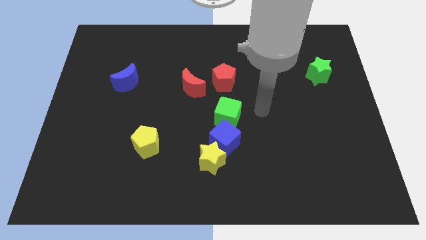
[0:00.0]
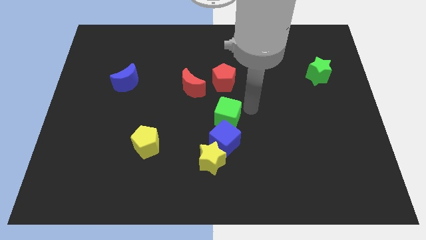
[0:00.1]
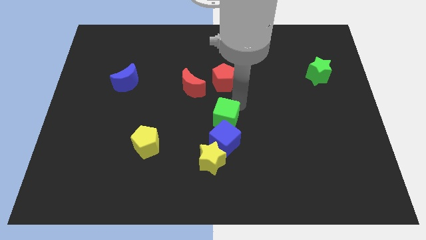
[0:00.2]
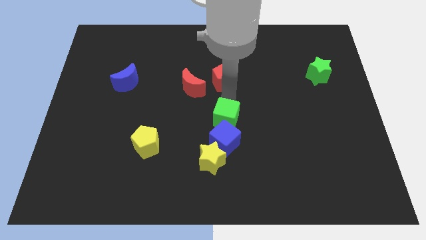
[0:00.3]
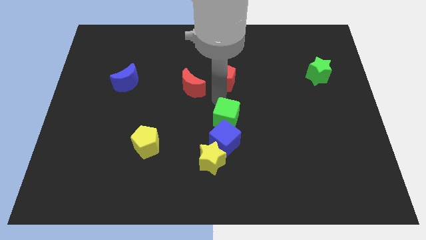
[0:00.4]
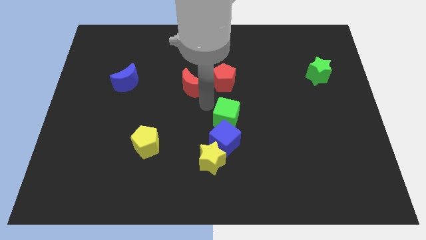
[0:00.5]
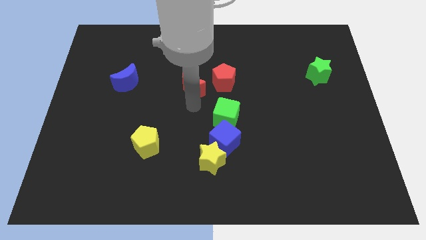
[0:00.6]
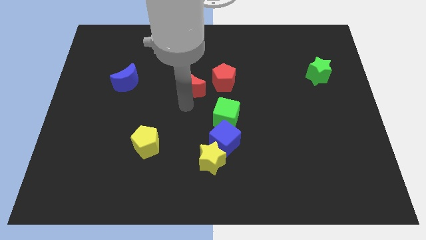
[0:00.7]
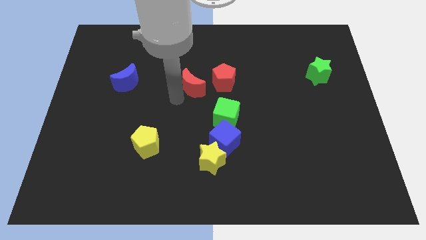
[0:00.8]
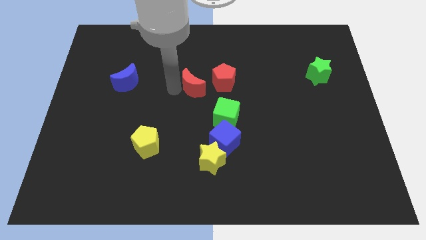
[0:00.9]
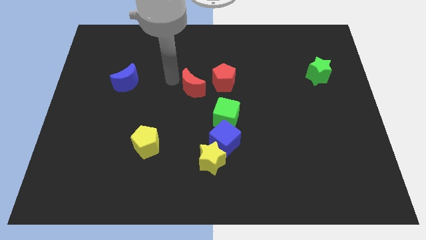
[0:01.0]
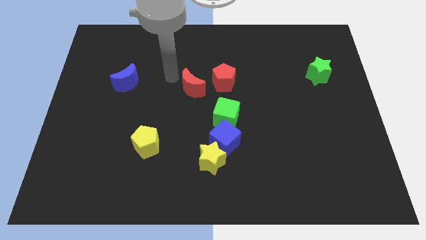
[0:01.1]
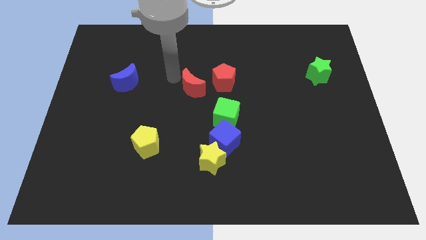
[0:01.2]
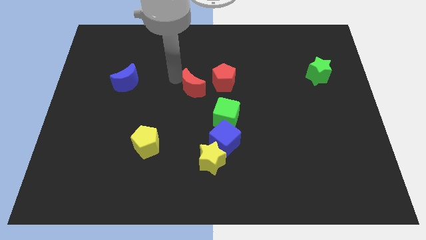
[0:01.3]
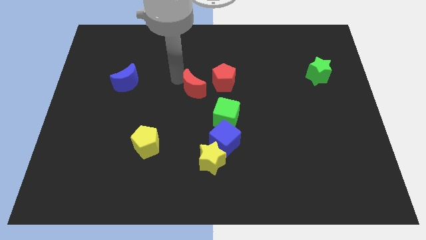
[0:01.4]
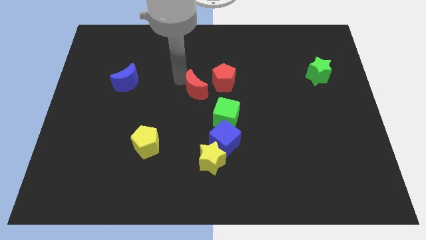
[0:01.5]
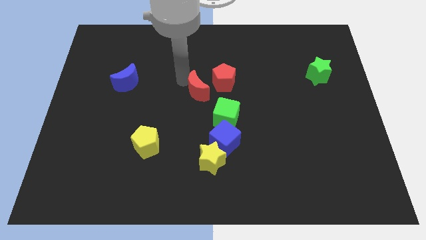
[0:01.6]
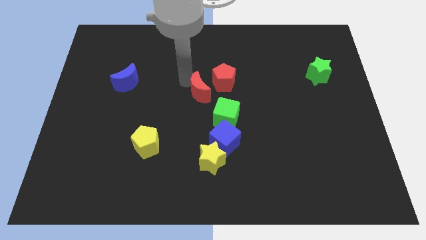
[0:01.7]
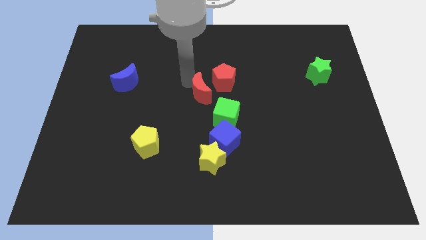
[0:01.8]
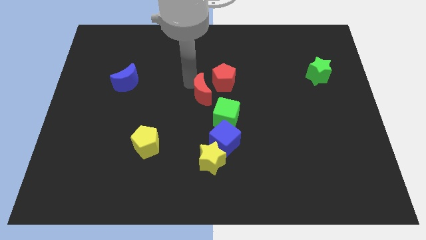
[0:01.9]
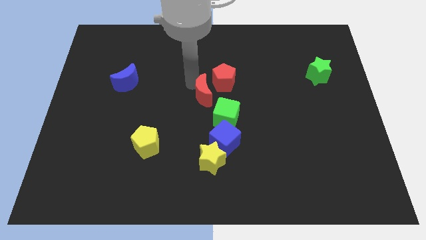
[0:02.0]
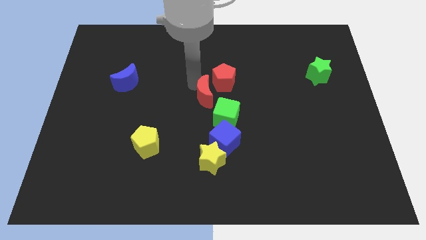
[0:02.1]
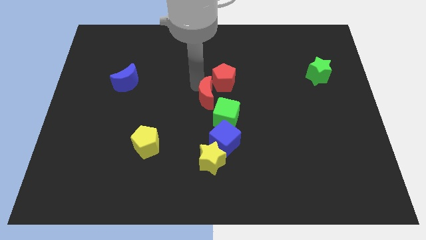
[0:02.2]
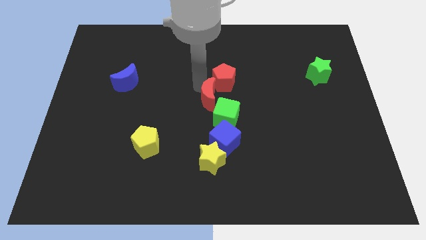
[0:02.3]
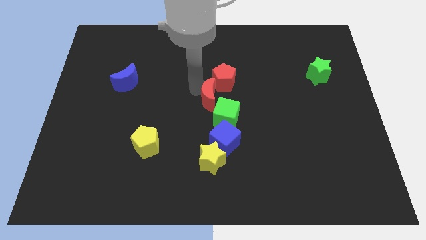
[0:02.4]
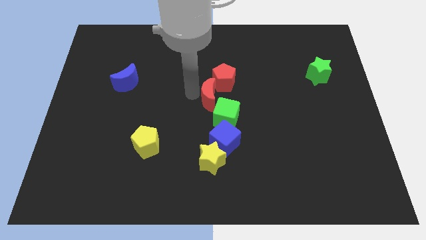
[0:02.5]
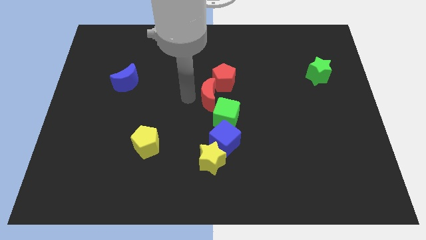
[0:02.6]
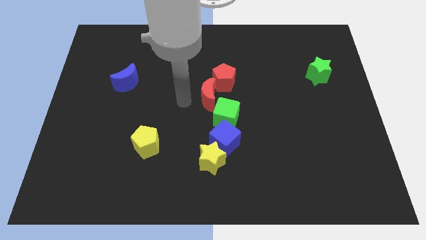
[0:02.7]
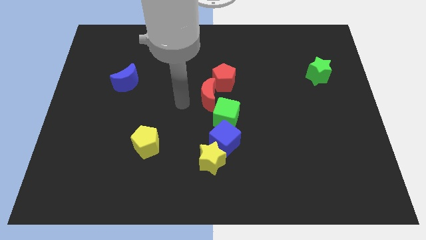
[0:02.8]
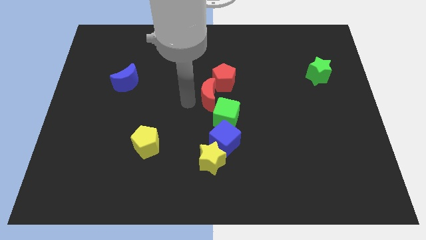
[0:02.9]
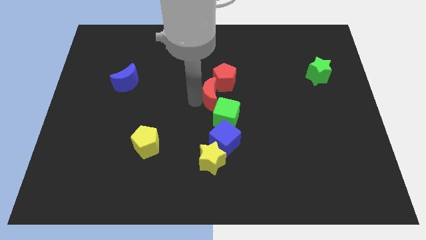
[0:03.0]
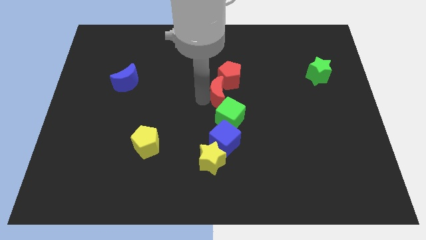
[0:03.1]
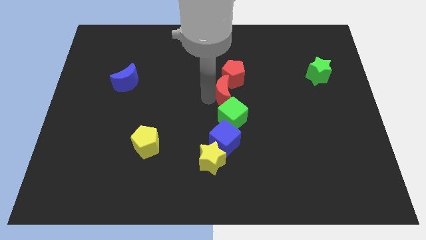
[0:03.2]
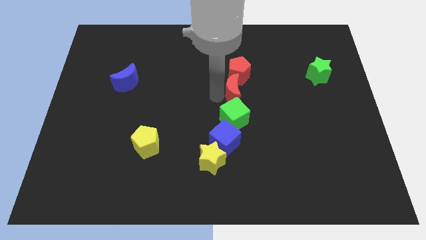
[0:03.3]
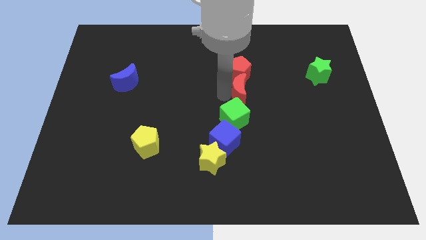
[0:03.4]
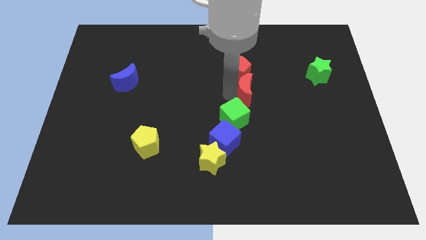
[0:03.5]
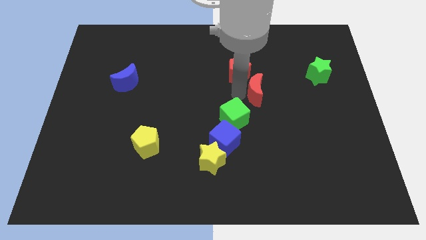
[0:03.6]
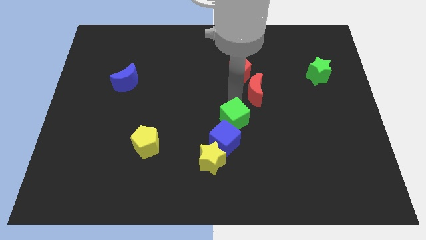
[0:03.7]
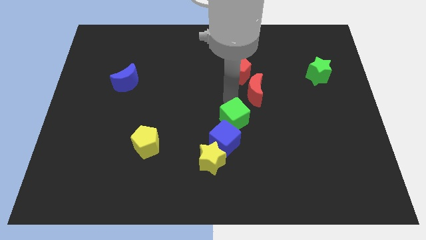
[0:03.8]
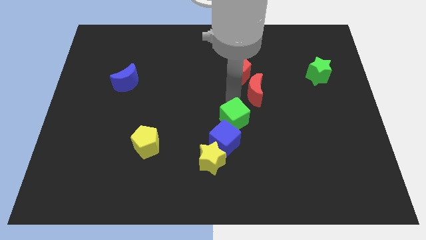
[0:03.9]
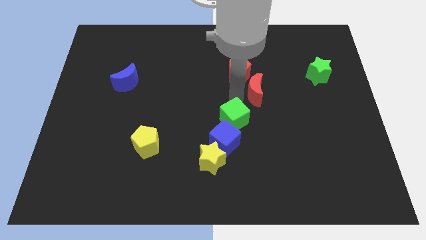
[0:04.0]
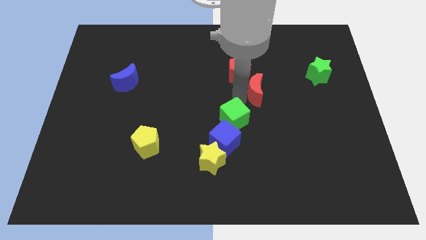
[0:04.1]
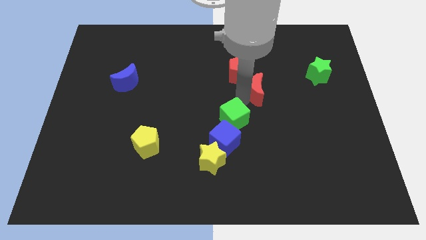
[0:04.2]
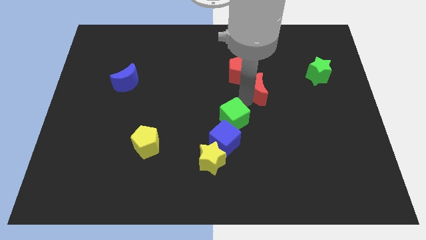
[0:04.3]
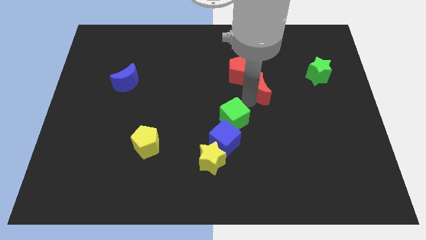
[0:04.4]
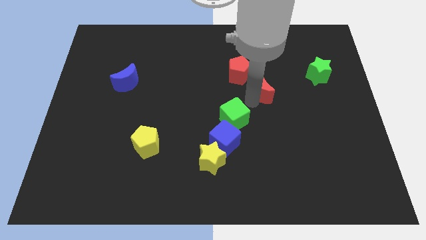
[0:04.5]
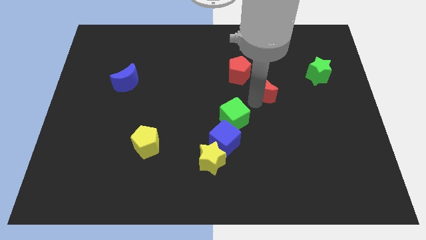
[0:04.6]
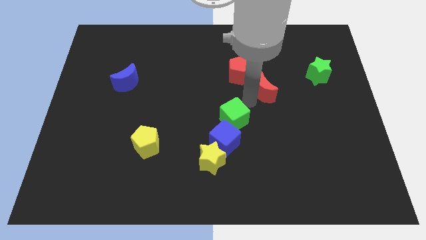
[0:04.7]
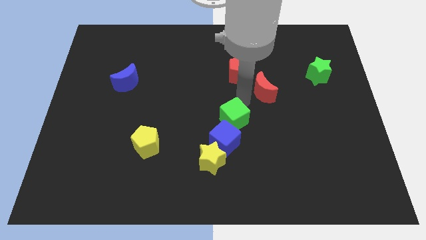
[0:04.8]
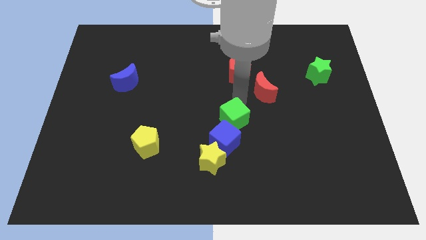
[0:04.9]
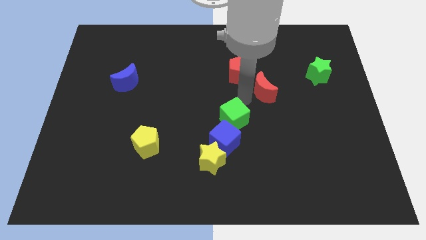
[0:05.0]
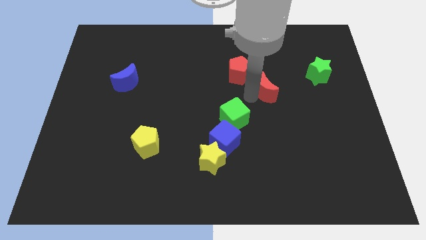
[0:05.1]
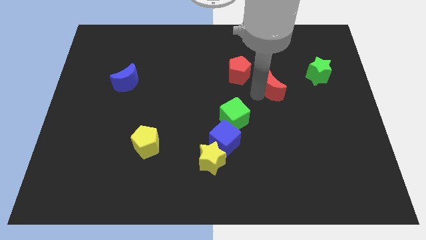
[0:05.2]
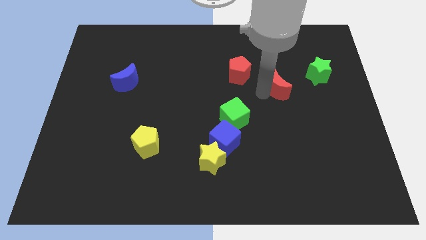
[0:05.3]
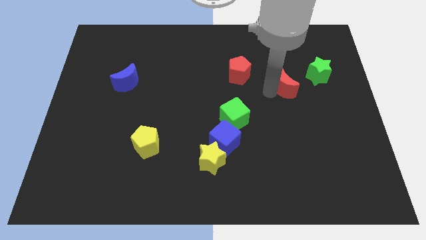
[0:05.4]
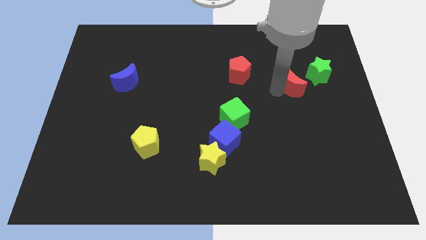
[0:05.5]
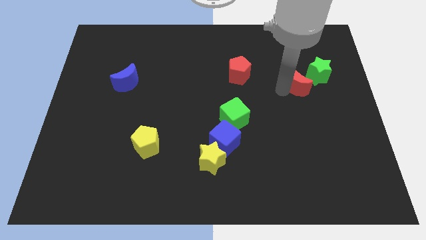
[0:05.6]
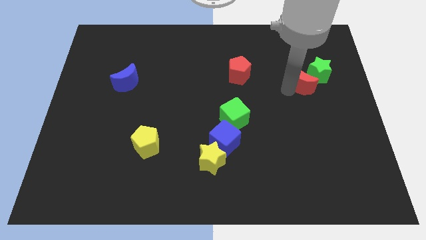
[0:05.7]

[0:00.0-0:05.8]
move the red moon to the green star

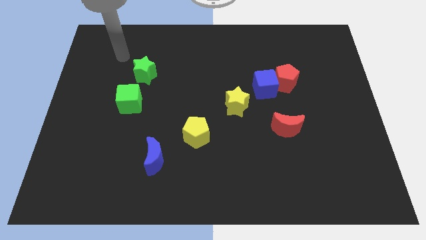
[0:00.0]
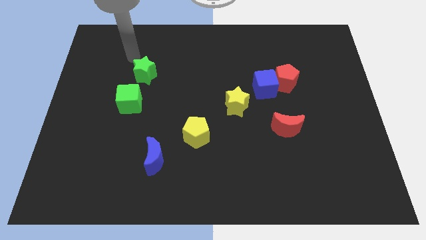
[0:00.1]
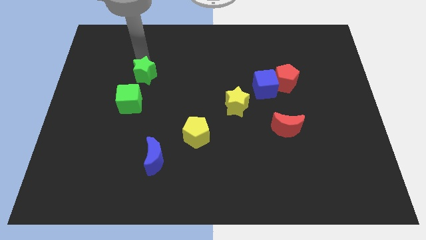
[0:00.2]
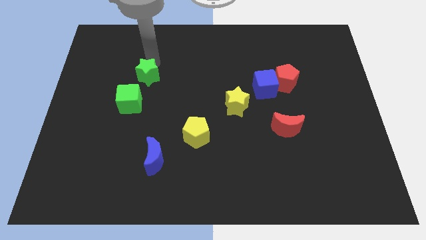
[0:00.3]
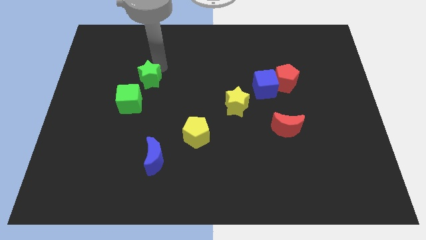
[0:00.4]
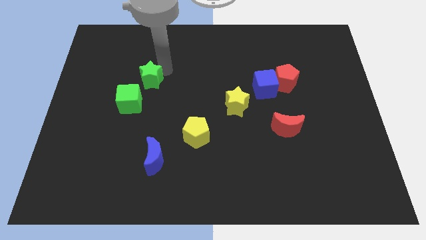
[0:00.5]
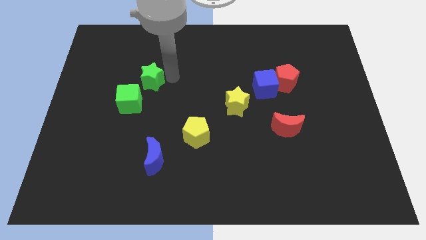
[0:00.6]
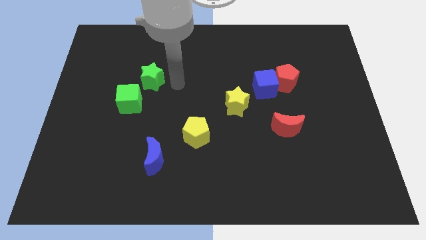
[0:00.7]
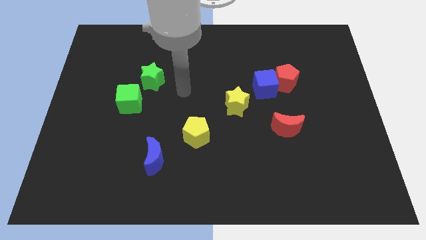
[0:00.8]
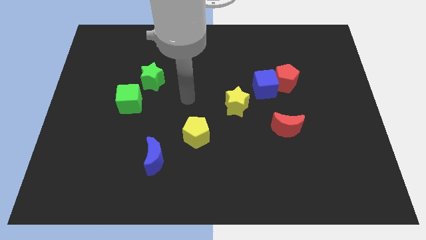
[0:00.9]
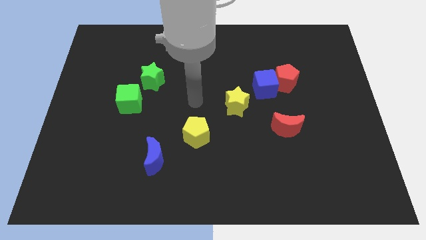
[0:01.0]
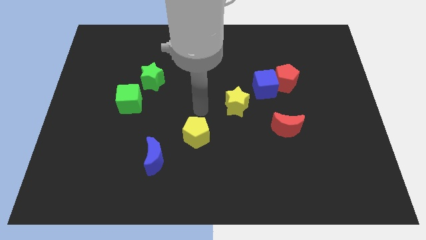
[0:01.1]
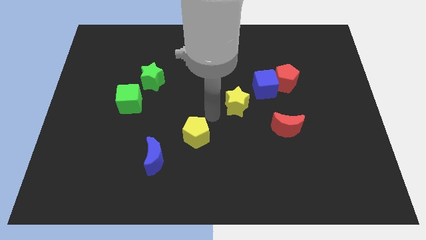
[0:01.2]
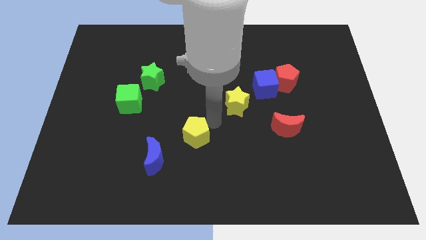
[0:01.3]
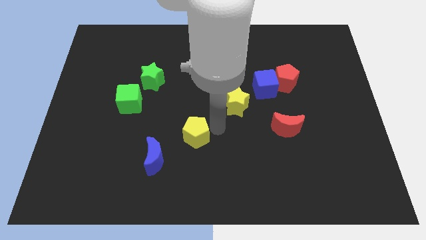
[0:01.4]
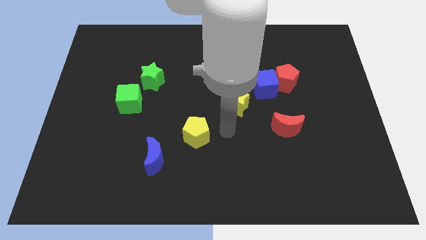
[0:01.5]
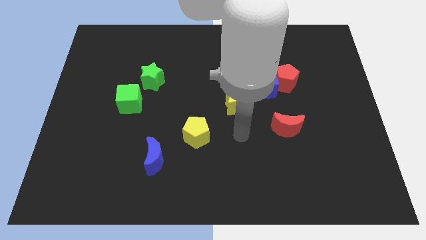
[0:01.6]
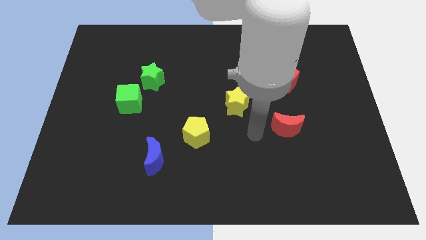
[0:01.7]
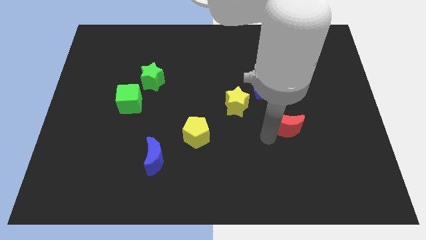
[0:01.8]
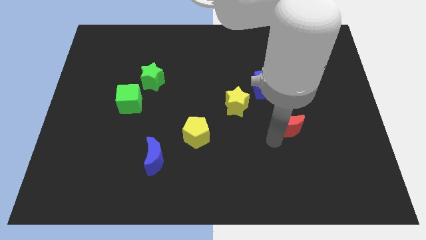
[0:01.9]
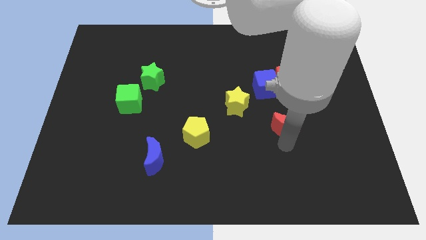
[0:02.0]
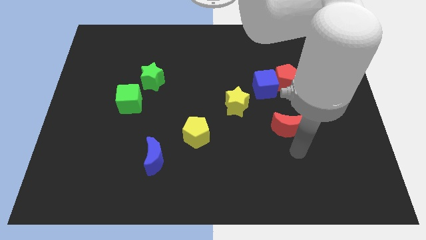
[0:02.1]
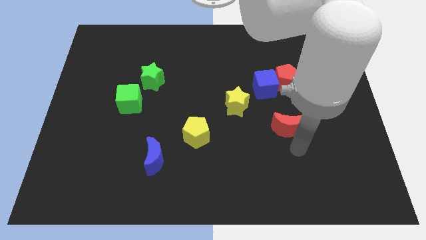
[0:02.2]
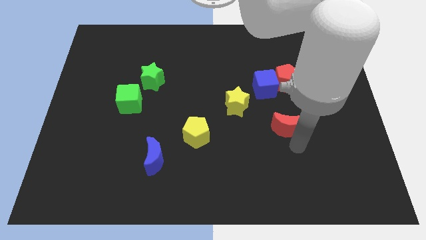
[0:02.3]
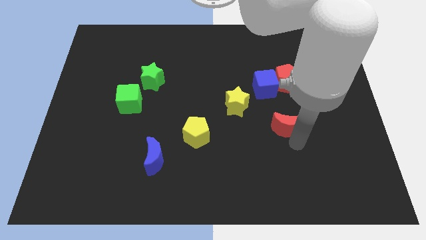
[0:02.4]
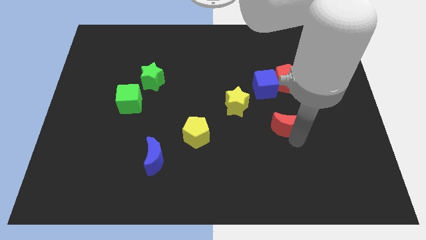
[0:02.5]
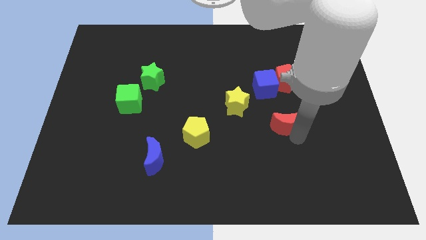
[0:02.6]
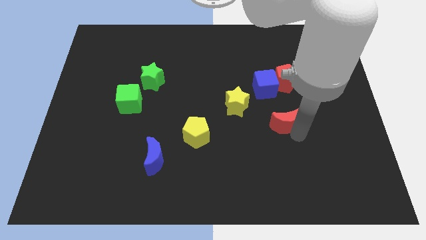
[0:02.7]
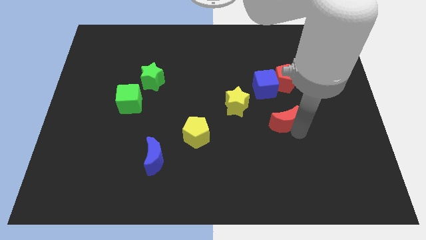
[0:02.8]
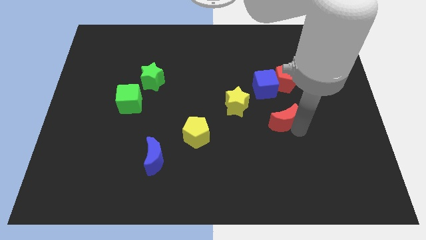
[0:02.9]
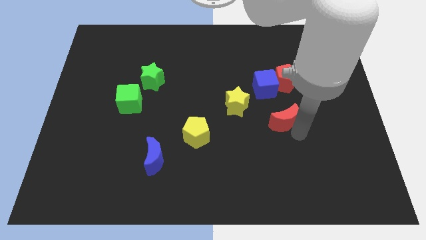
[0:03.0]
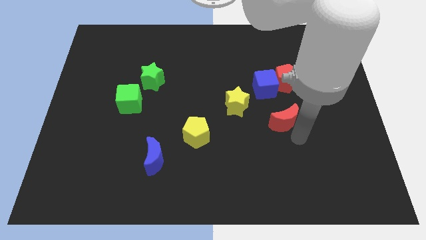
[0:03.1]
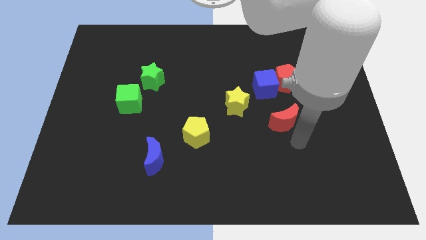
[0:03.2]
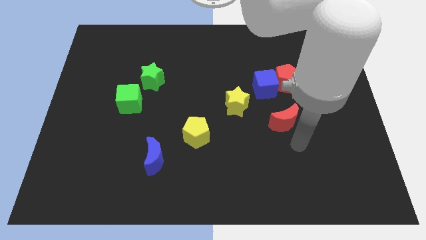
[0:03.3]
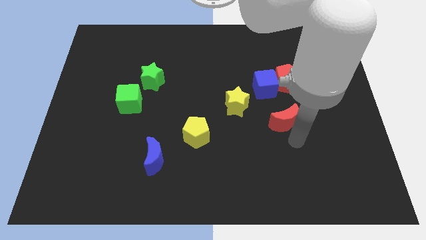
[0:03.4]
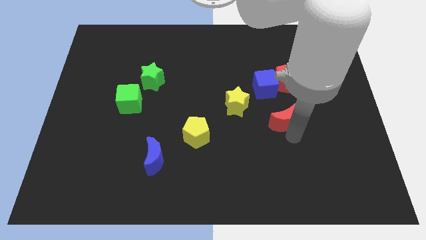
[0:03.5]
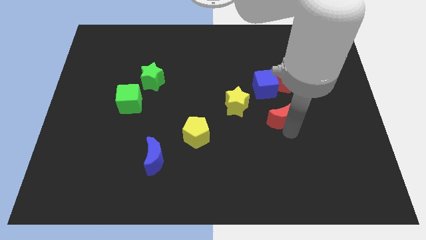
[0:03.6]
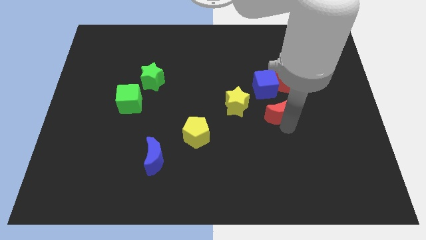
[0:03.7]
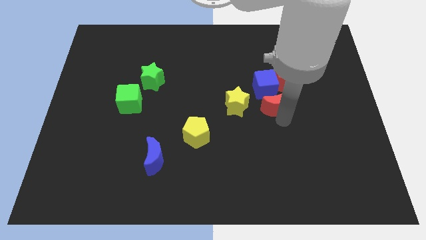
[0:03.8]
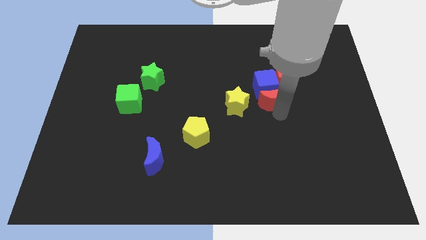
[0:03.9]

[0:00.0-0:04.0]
move the red moon to the blue cube
